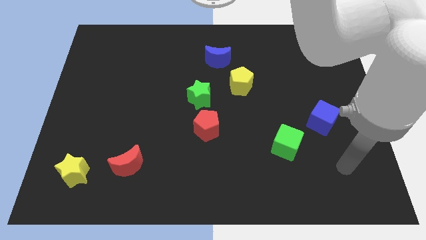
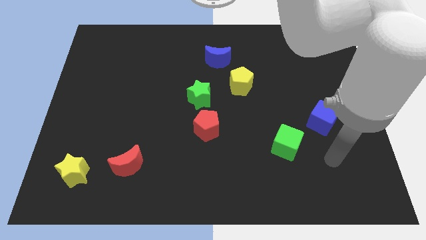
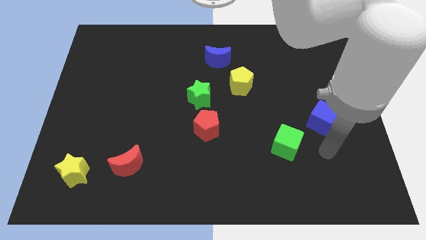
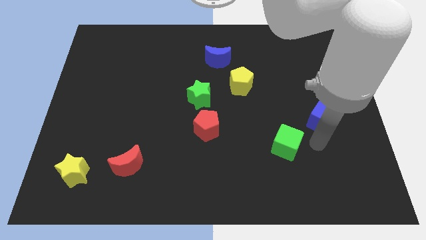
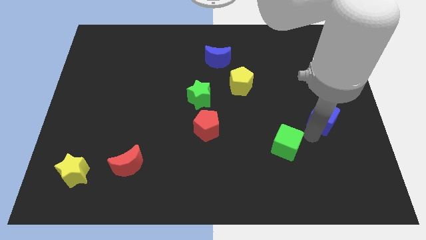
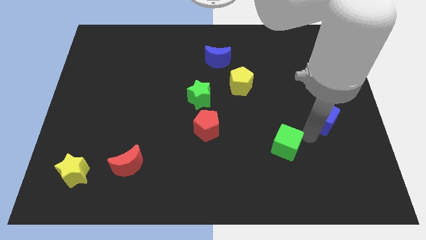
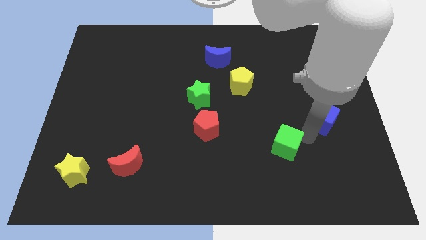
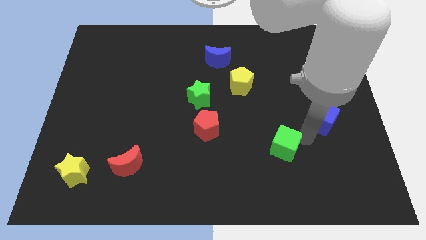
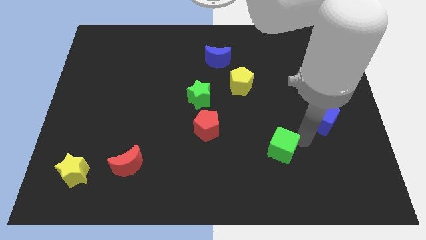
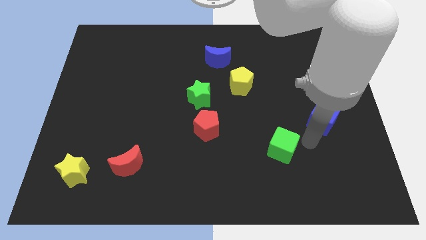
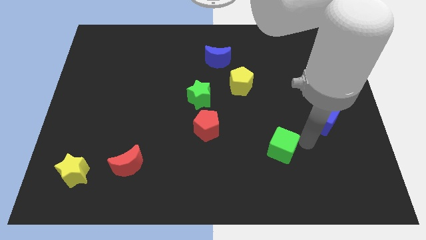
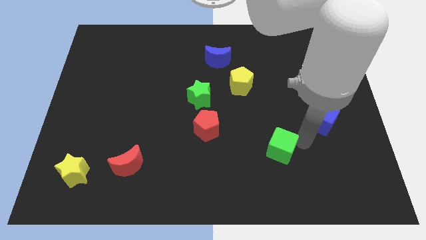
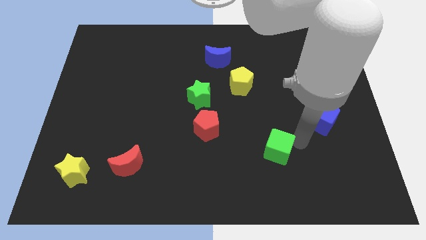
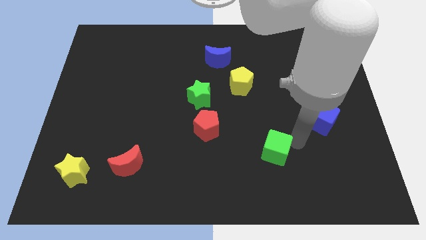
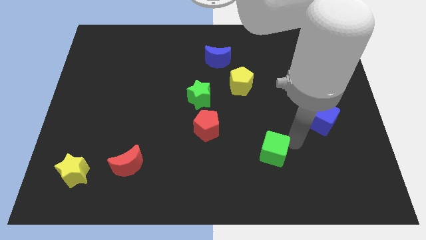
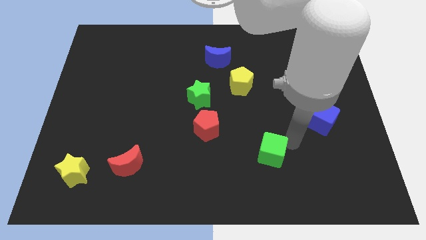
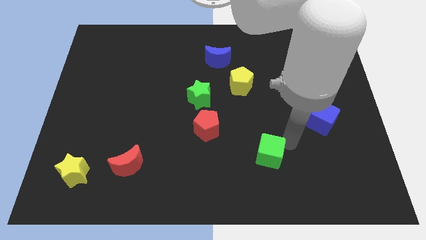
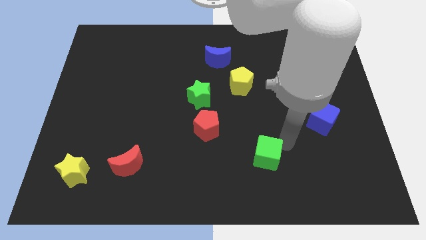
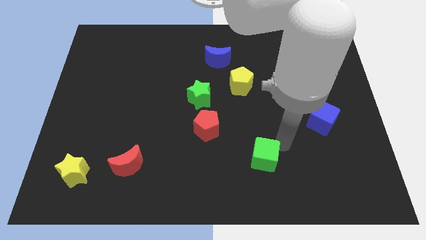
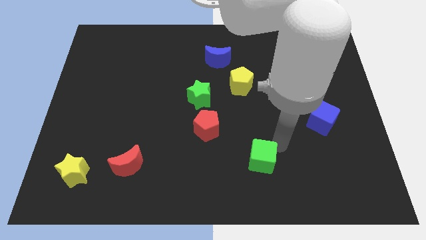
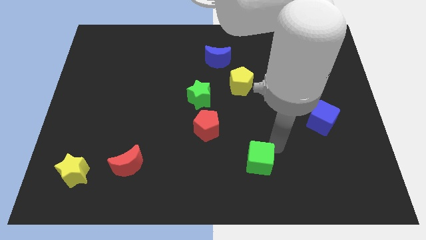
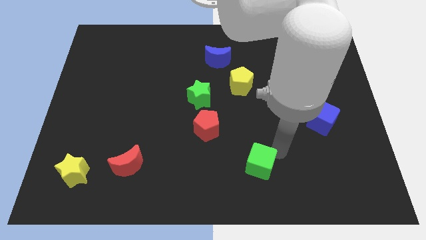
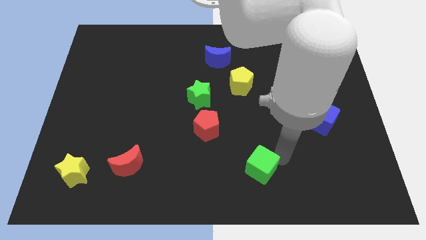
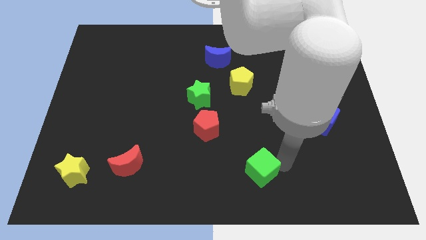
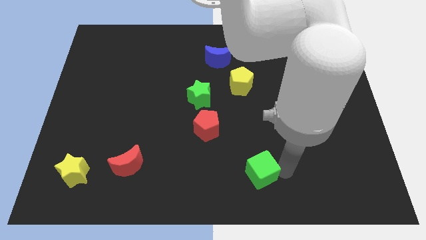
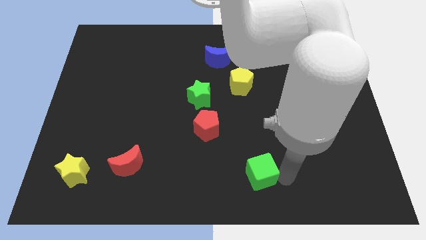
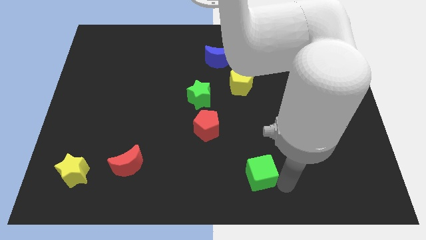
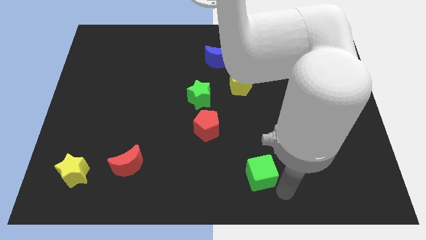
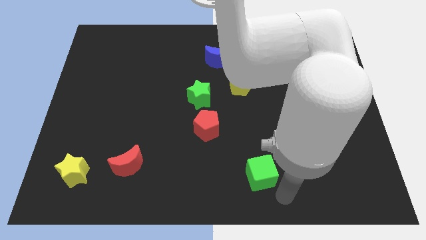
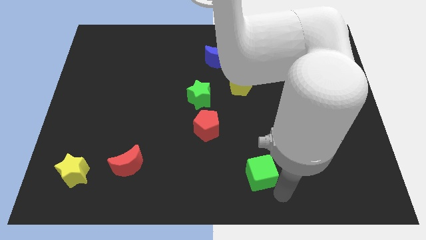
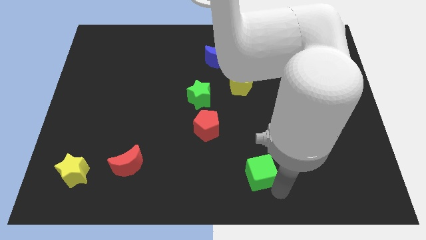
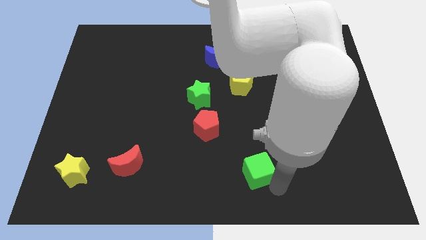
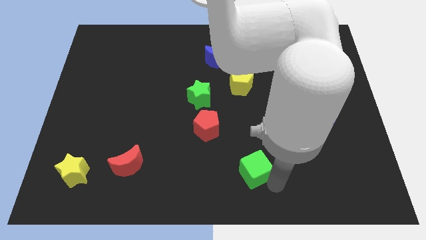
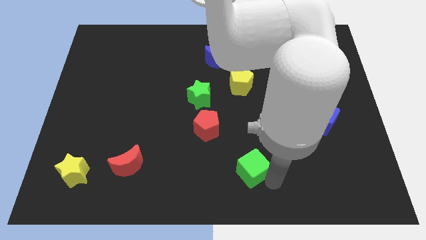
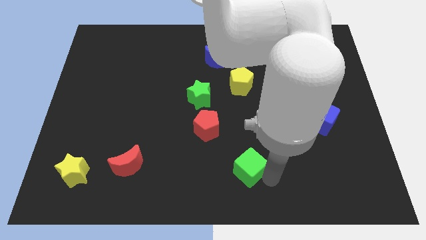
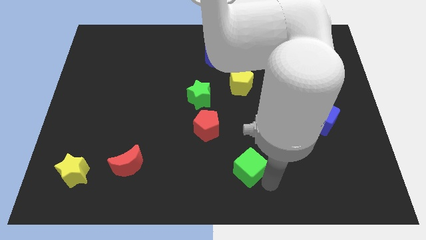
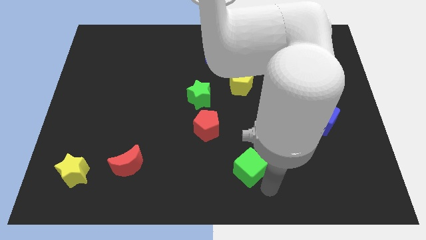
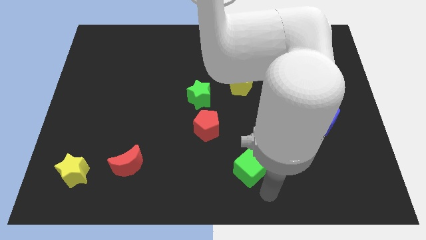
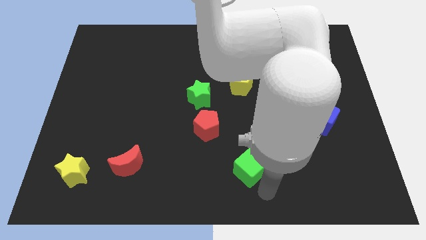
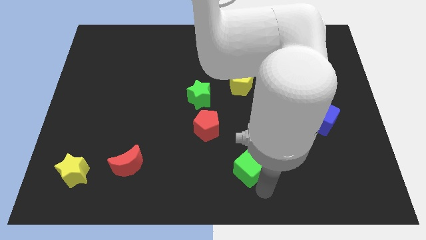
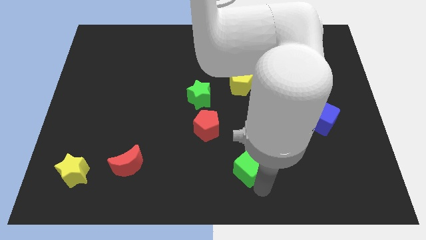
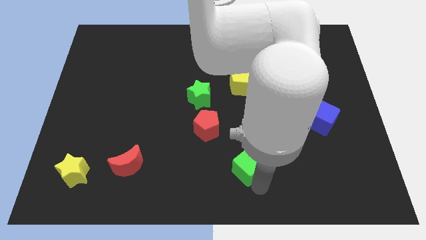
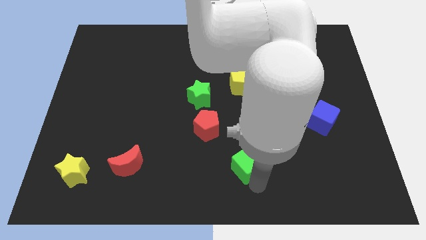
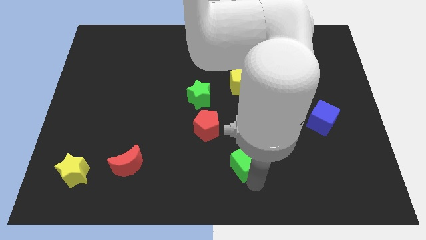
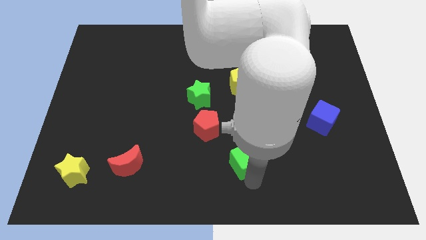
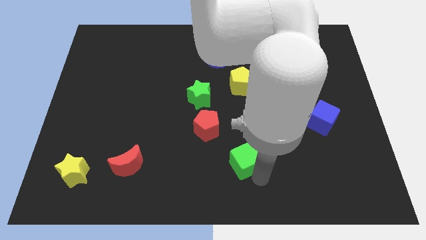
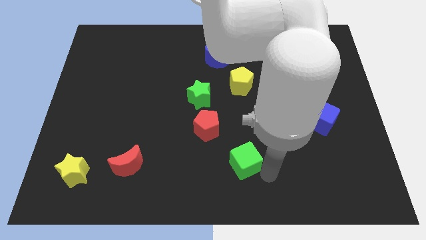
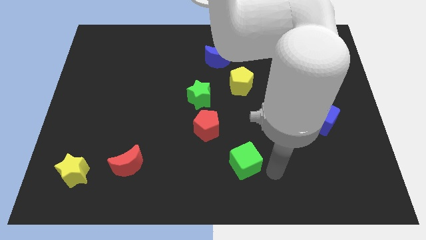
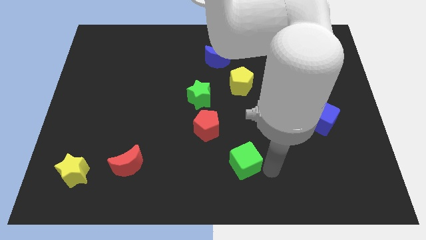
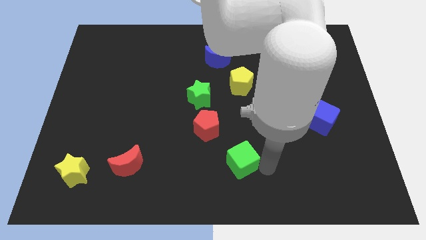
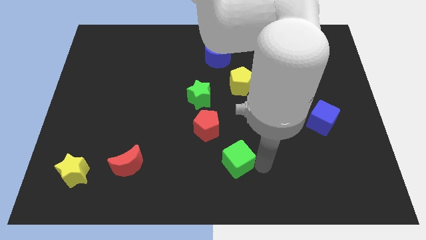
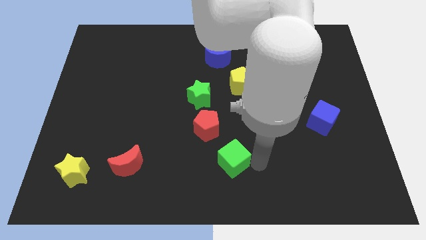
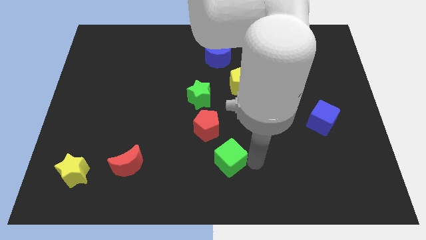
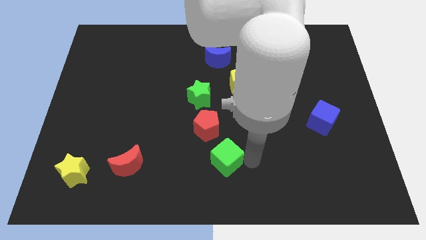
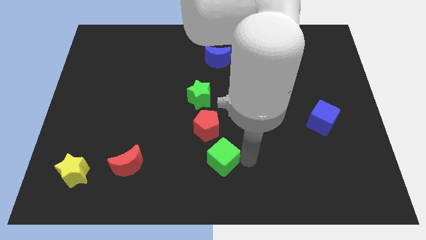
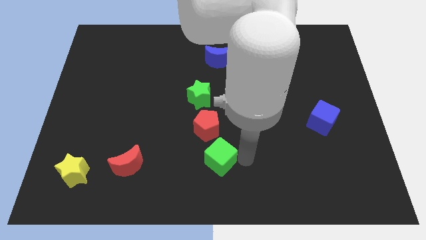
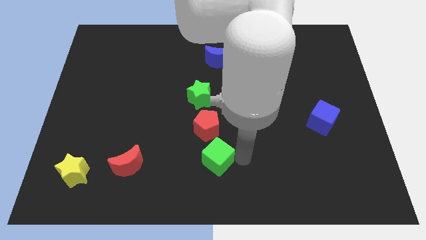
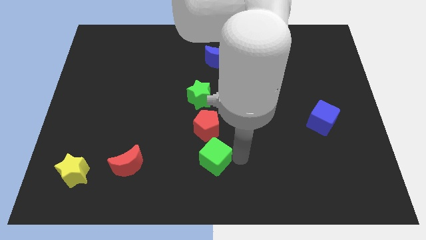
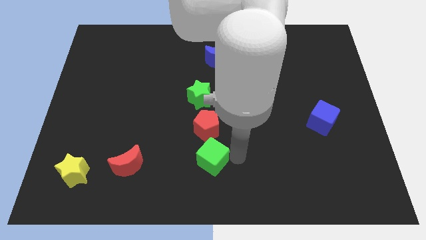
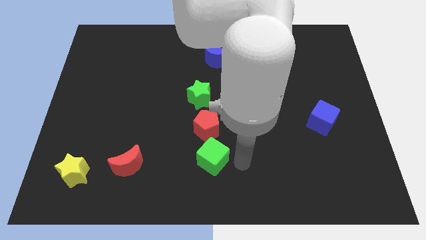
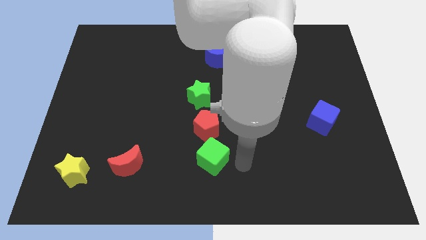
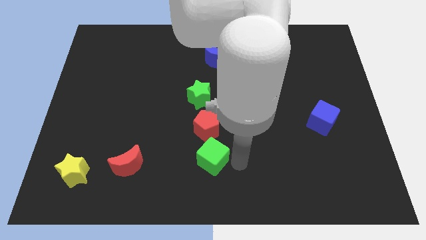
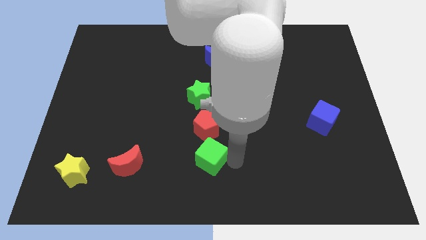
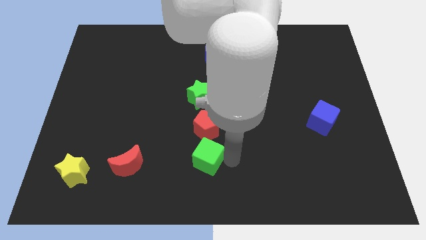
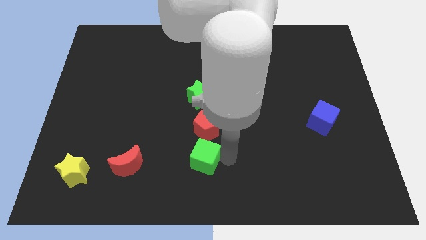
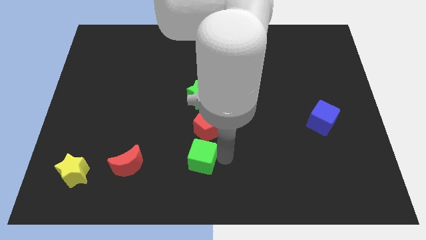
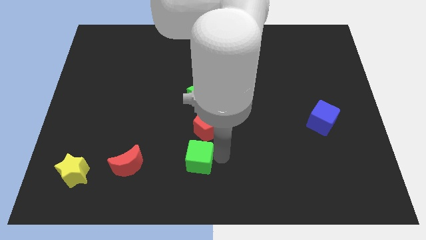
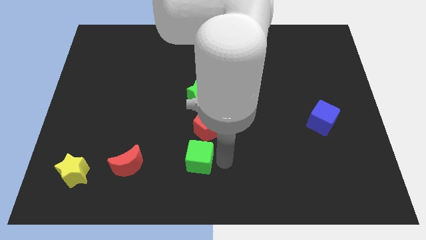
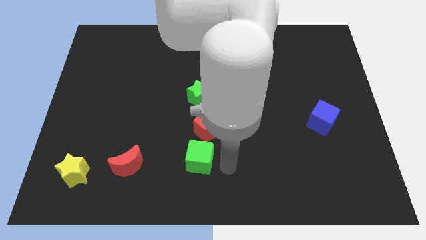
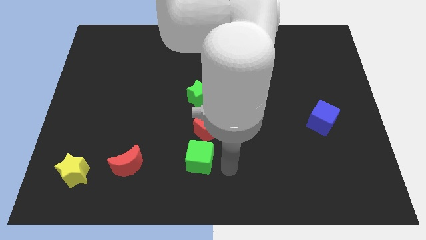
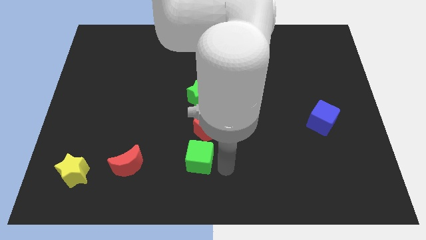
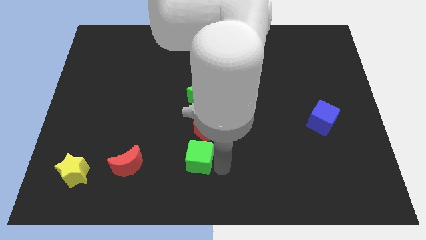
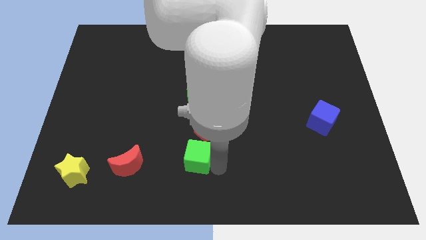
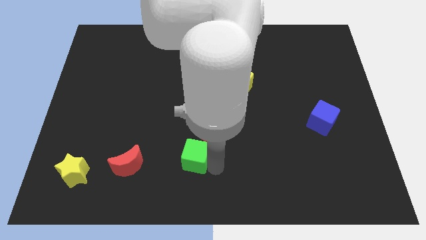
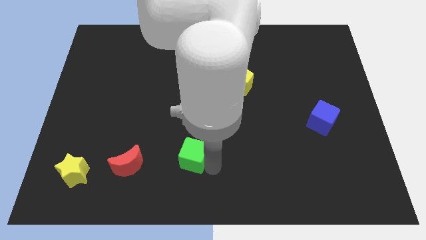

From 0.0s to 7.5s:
move the green cube left

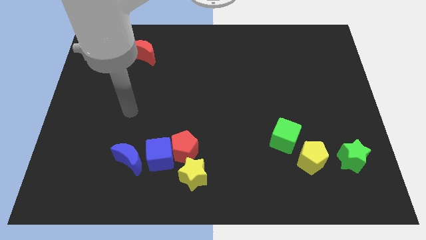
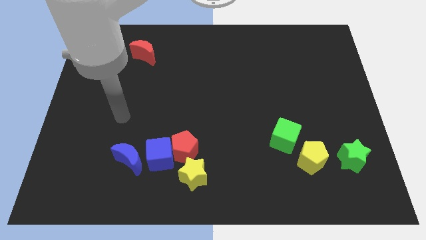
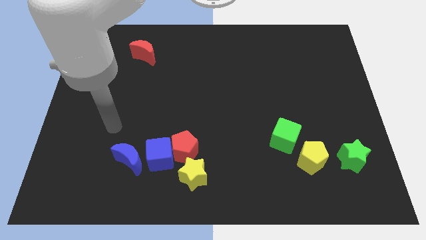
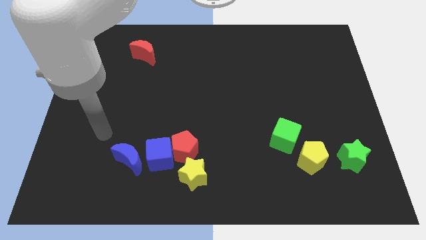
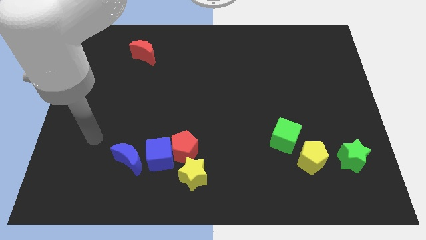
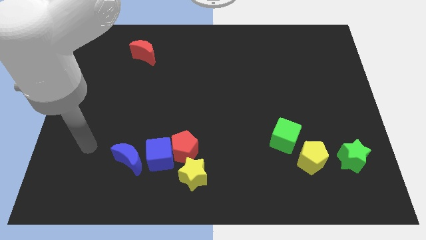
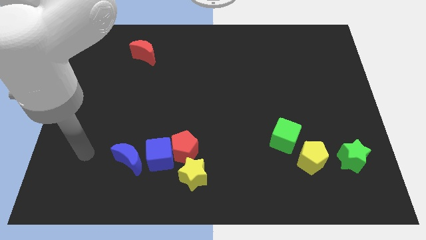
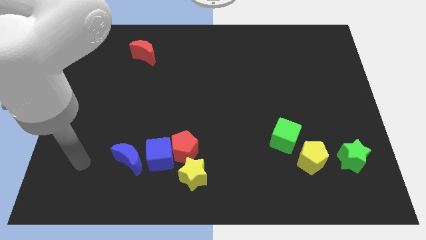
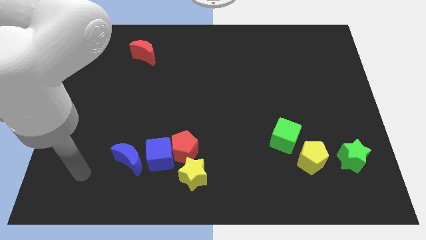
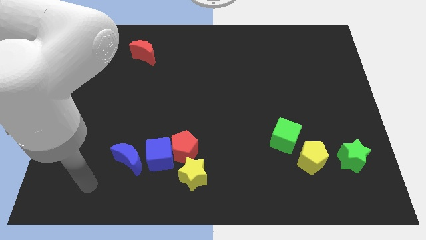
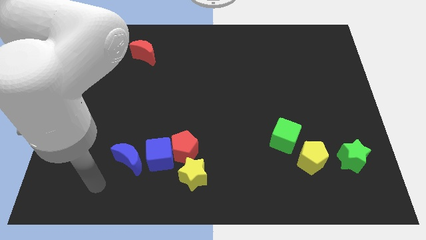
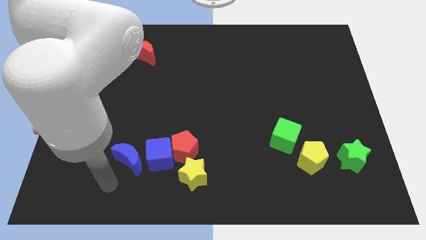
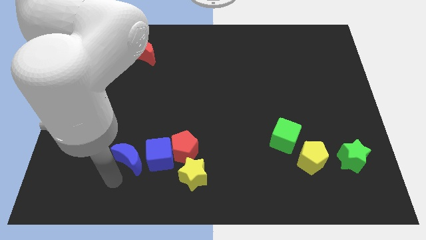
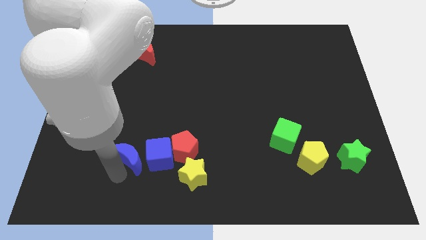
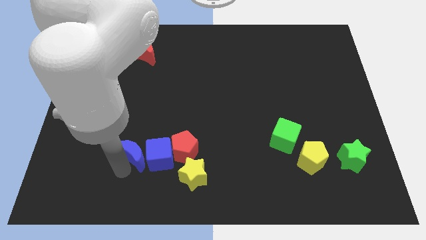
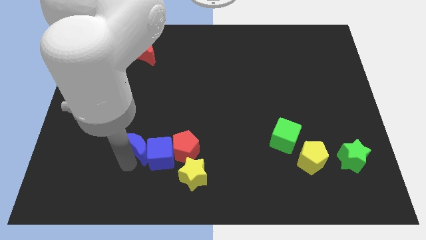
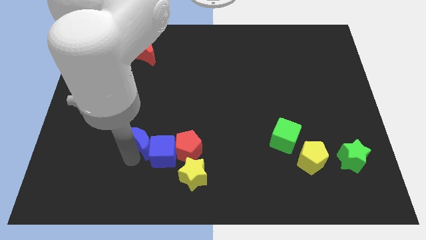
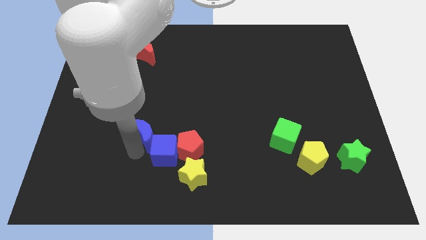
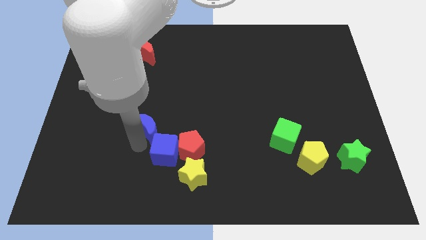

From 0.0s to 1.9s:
slightly push the blue moon diagonally upwards and right
